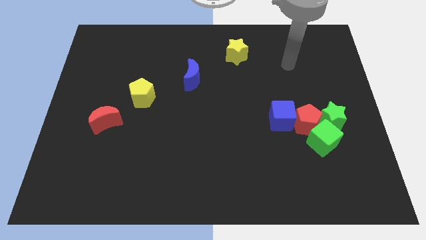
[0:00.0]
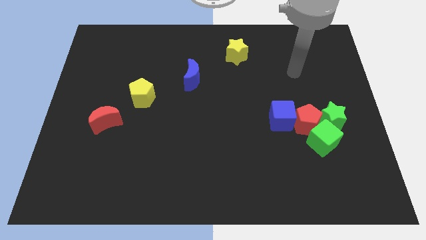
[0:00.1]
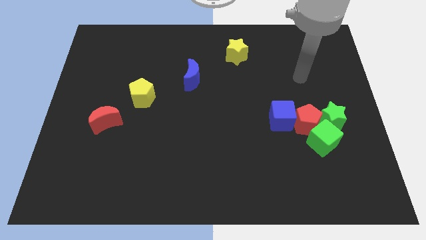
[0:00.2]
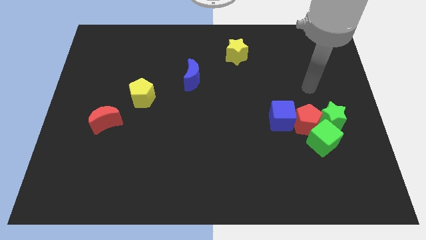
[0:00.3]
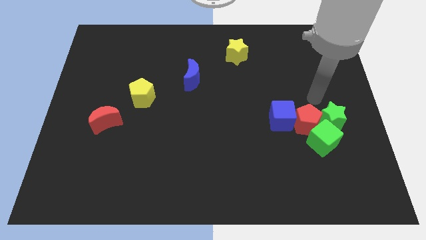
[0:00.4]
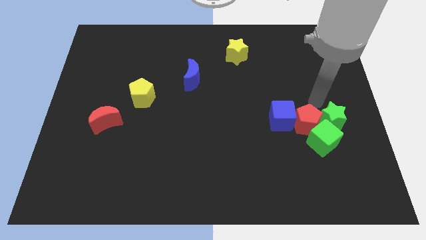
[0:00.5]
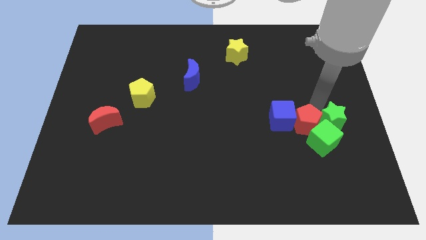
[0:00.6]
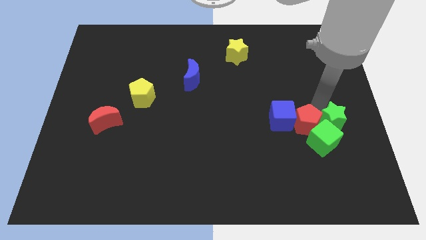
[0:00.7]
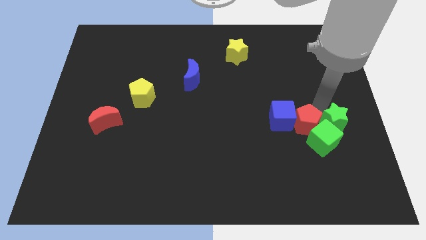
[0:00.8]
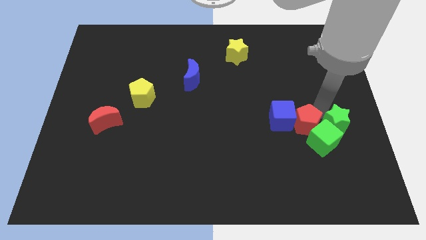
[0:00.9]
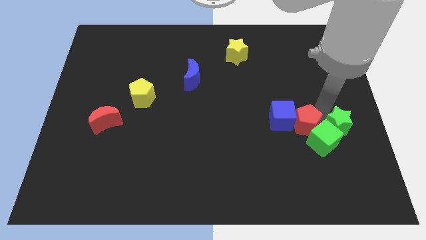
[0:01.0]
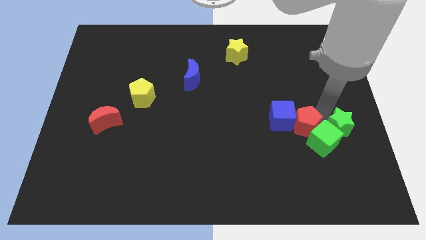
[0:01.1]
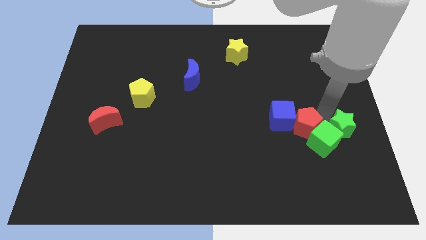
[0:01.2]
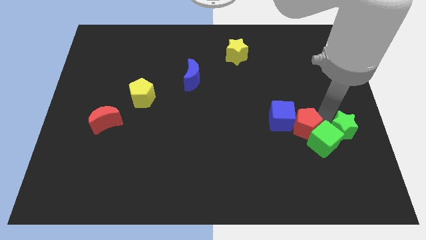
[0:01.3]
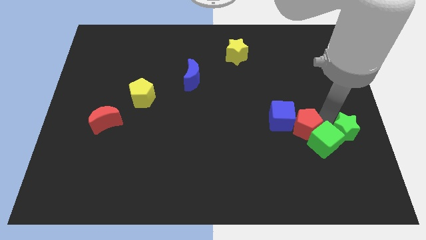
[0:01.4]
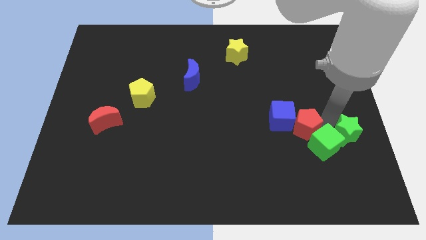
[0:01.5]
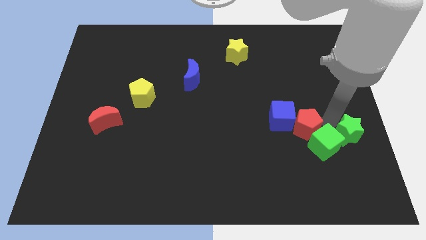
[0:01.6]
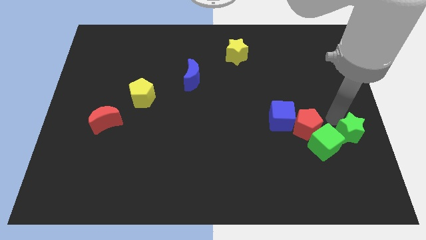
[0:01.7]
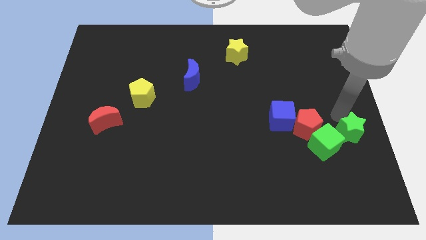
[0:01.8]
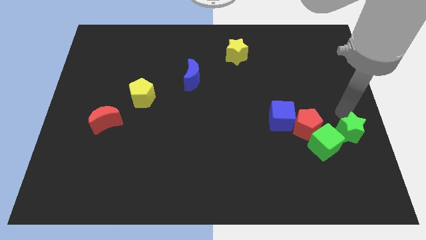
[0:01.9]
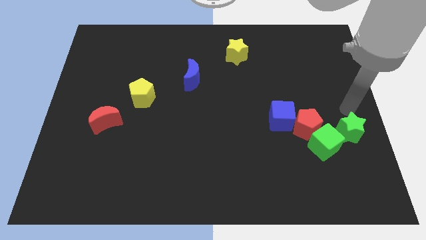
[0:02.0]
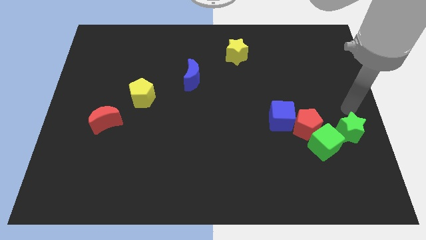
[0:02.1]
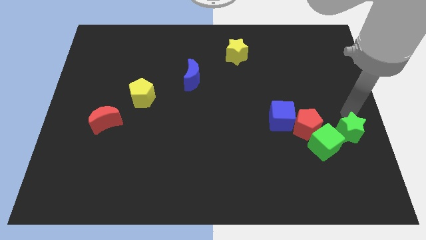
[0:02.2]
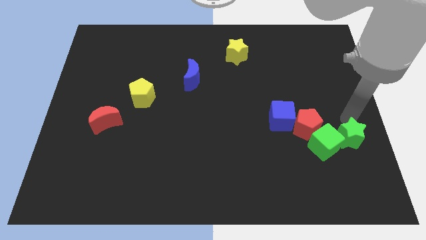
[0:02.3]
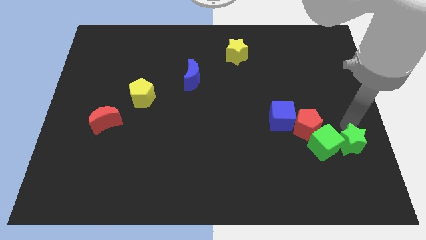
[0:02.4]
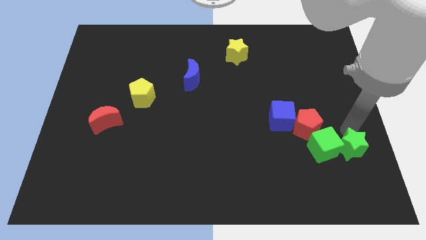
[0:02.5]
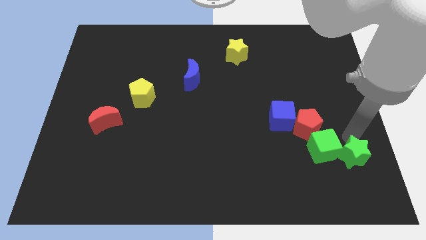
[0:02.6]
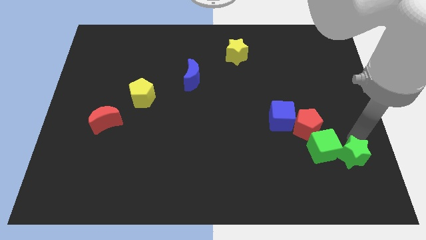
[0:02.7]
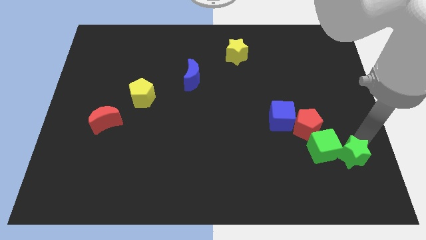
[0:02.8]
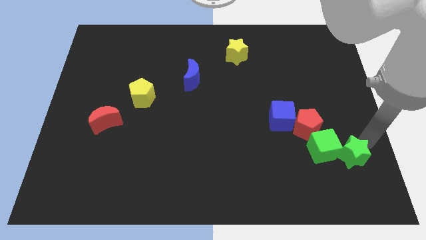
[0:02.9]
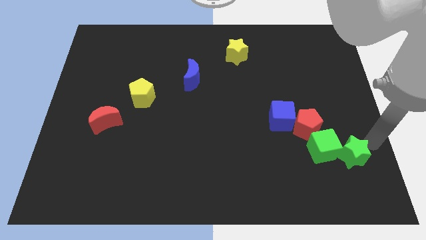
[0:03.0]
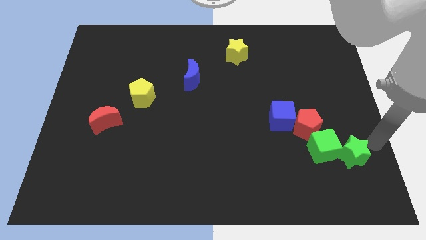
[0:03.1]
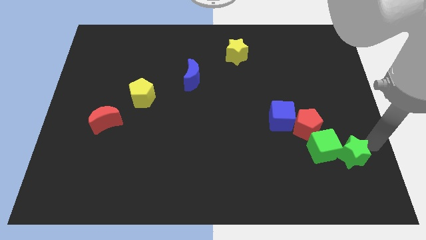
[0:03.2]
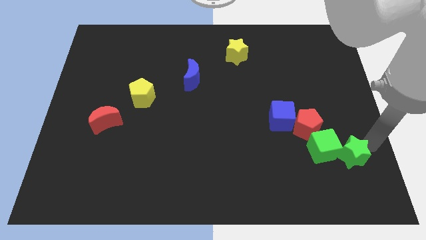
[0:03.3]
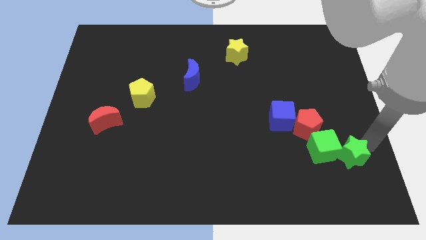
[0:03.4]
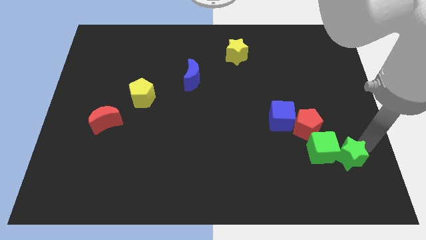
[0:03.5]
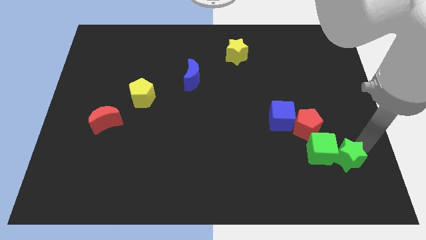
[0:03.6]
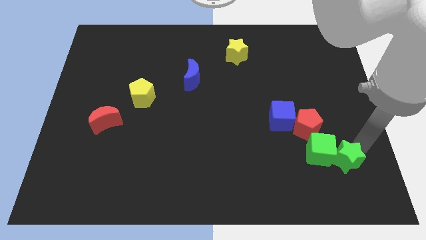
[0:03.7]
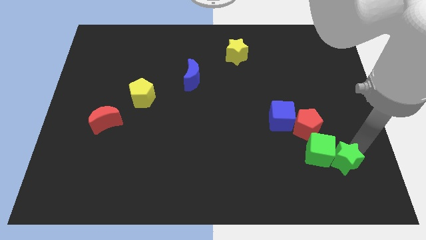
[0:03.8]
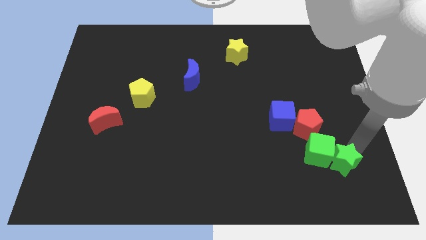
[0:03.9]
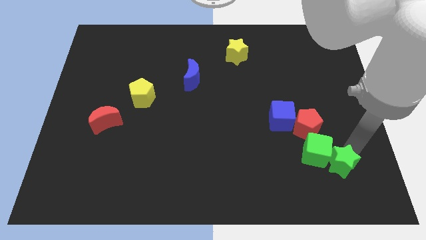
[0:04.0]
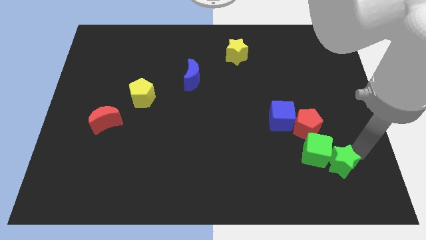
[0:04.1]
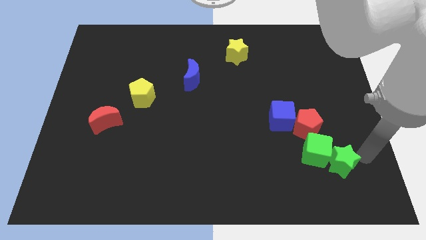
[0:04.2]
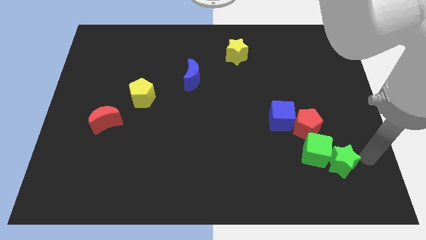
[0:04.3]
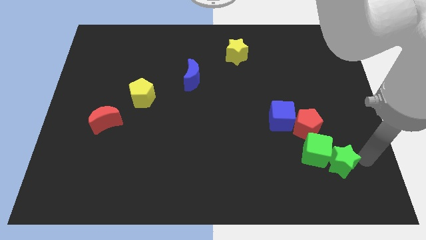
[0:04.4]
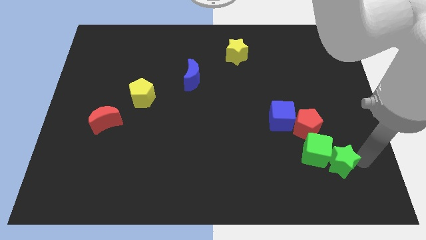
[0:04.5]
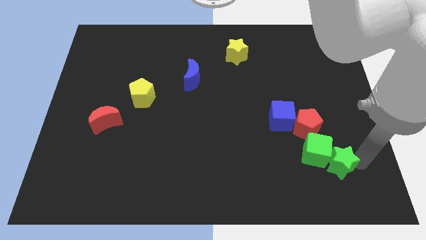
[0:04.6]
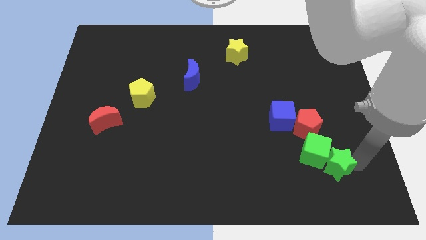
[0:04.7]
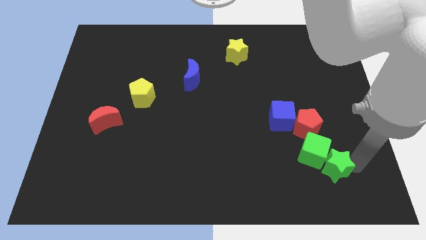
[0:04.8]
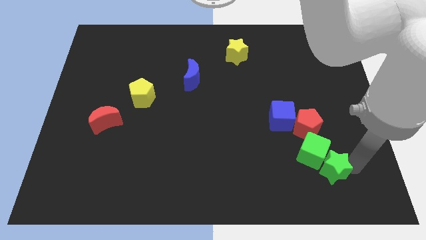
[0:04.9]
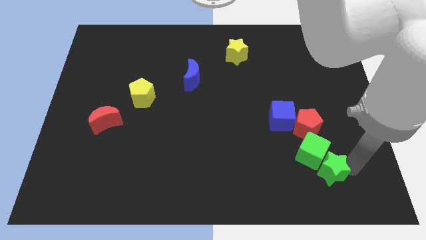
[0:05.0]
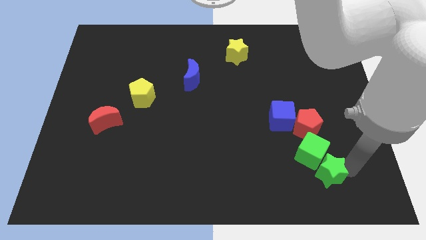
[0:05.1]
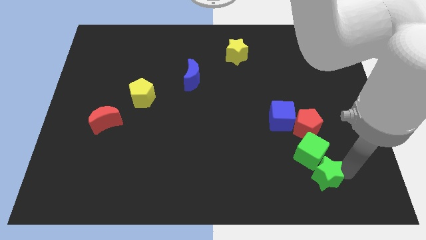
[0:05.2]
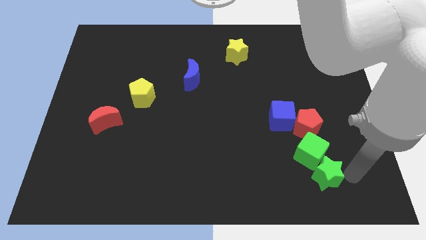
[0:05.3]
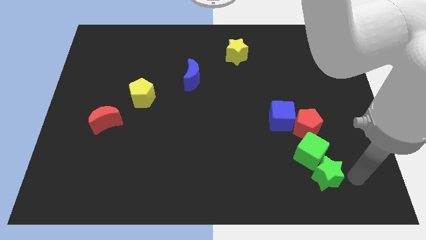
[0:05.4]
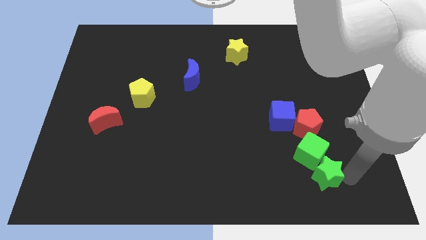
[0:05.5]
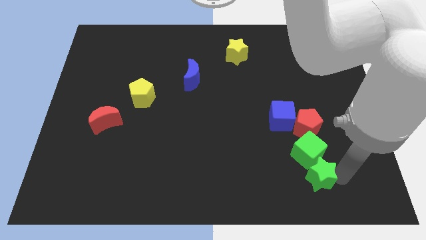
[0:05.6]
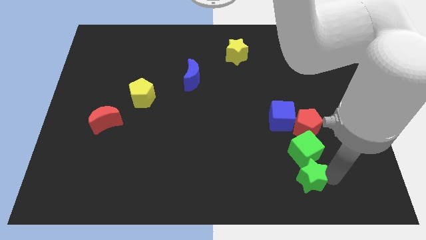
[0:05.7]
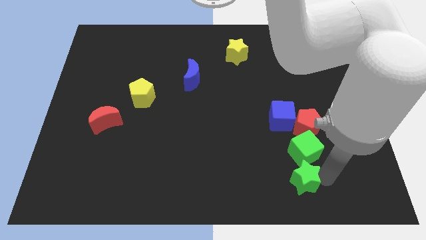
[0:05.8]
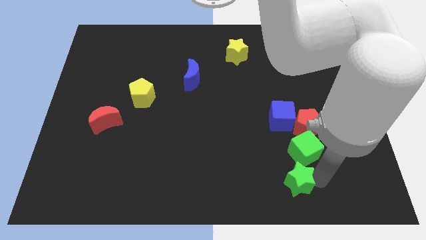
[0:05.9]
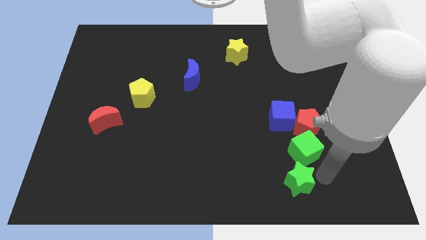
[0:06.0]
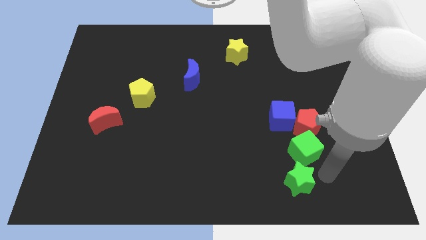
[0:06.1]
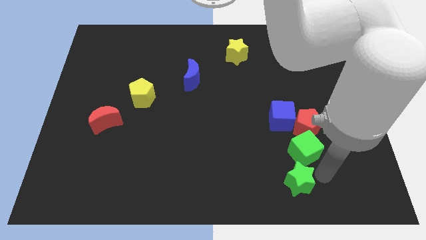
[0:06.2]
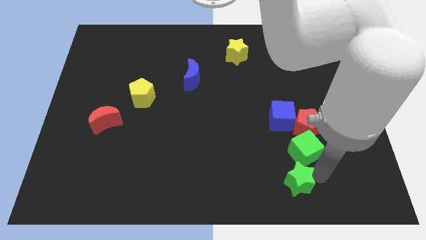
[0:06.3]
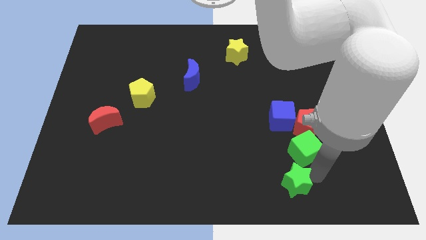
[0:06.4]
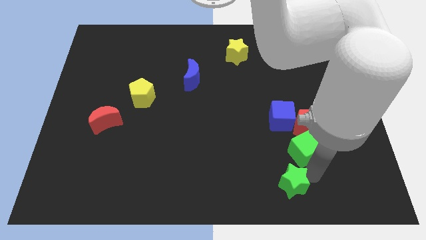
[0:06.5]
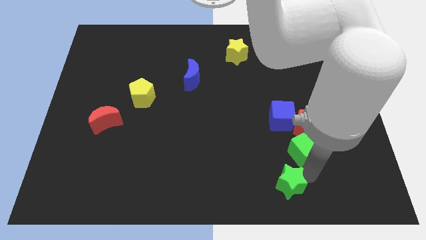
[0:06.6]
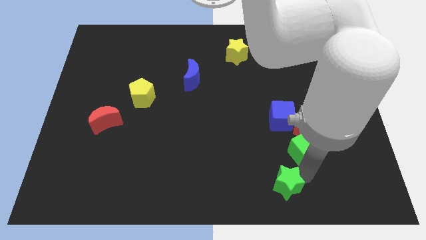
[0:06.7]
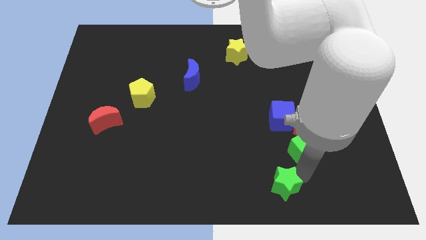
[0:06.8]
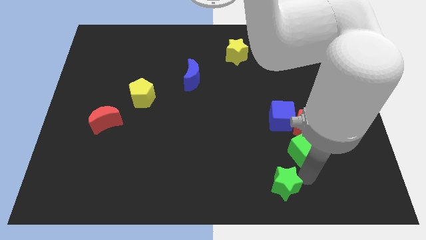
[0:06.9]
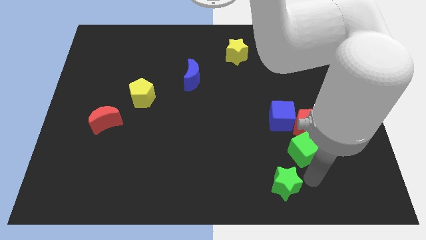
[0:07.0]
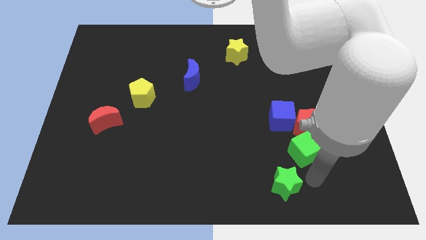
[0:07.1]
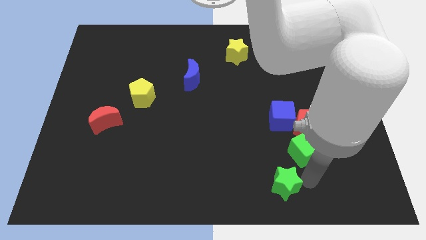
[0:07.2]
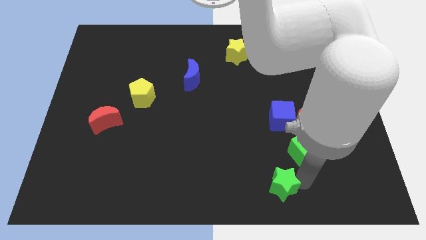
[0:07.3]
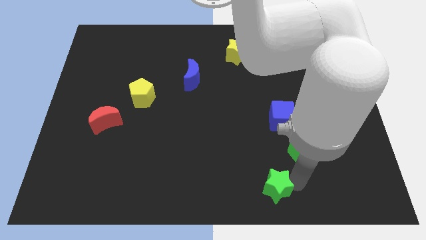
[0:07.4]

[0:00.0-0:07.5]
move the green star to the bottom side

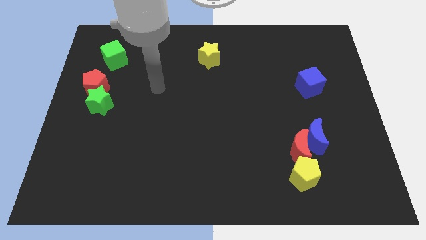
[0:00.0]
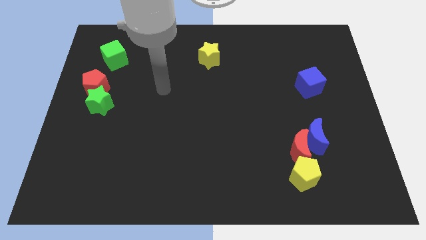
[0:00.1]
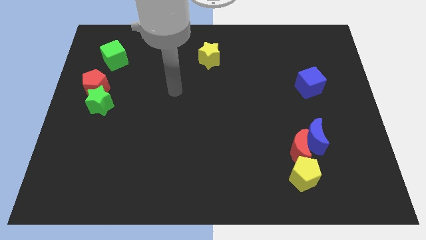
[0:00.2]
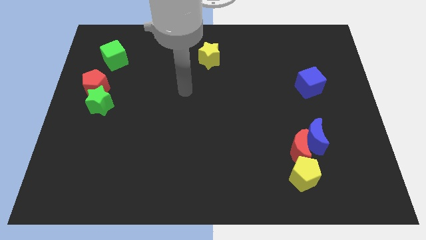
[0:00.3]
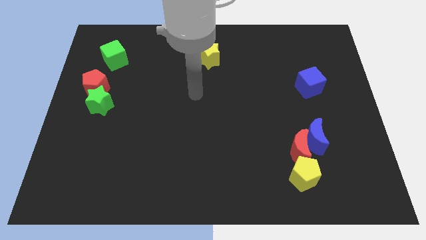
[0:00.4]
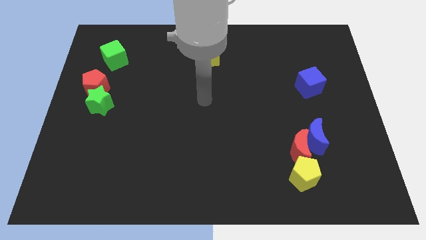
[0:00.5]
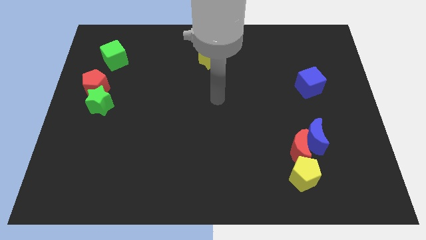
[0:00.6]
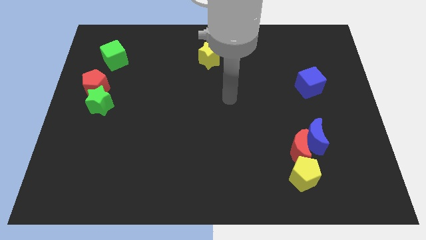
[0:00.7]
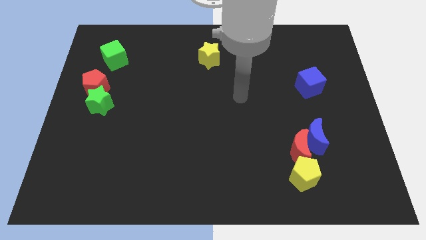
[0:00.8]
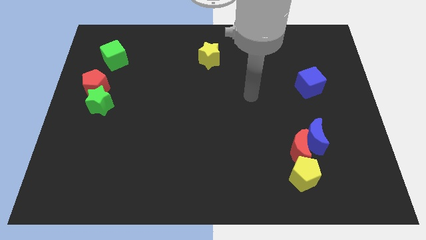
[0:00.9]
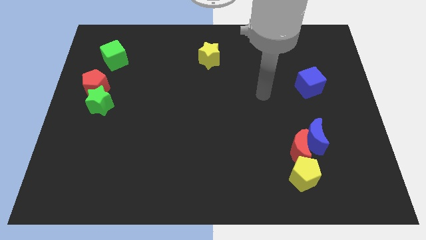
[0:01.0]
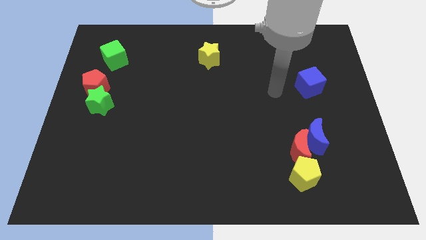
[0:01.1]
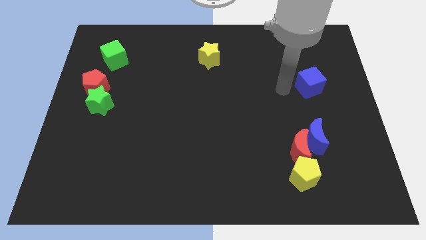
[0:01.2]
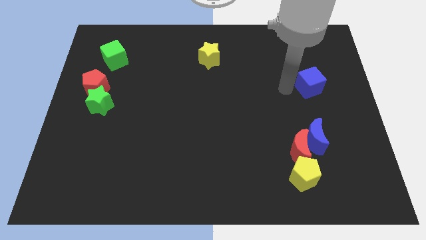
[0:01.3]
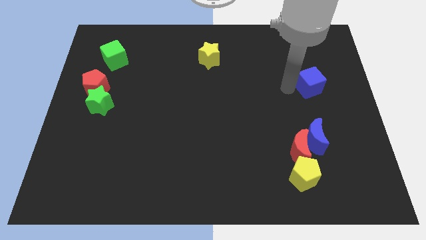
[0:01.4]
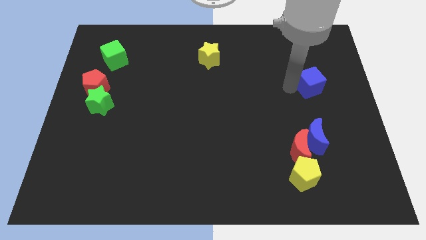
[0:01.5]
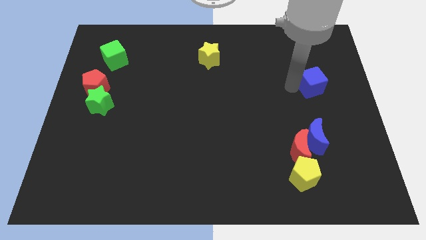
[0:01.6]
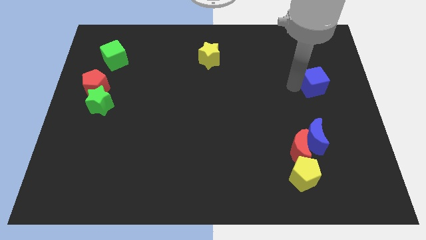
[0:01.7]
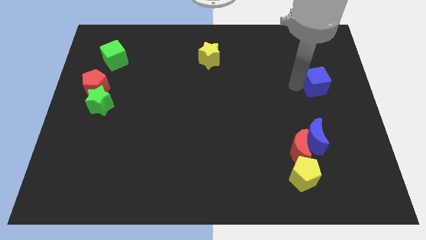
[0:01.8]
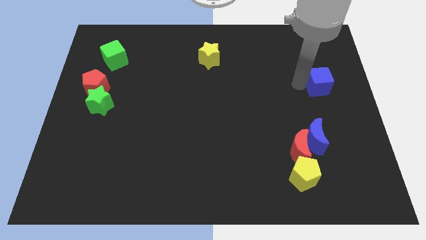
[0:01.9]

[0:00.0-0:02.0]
push the blue cube to the right side of the board
